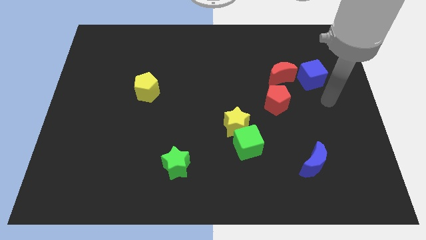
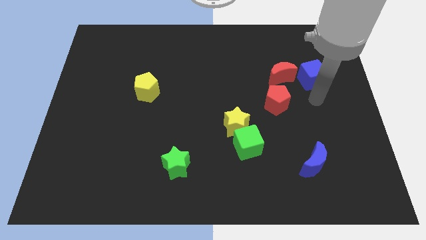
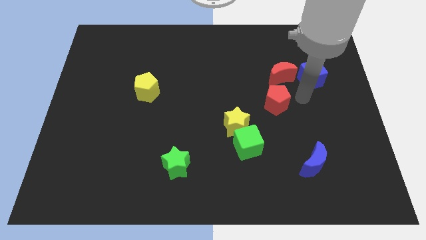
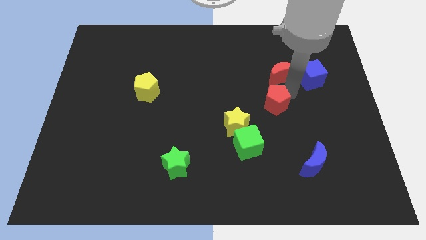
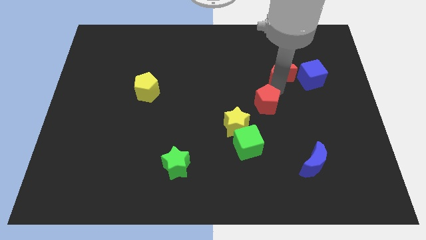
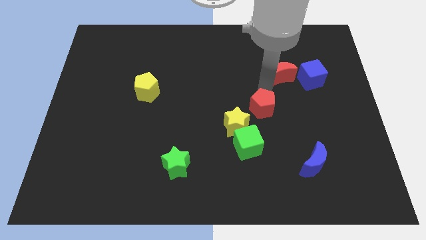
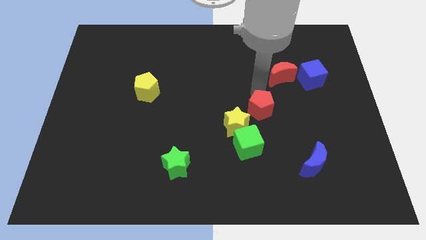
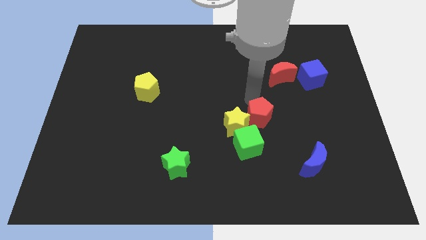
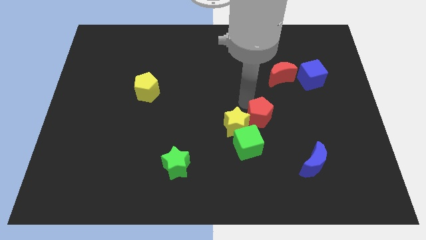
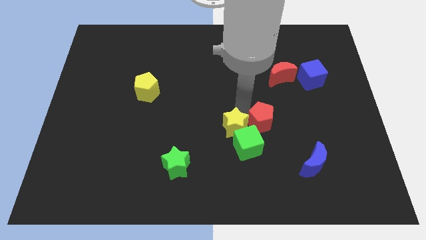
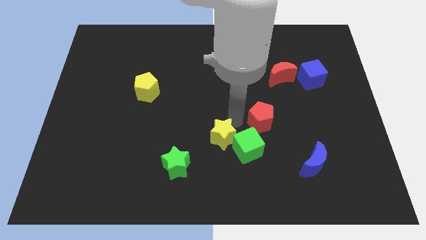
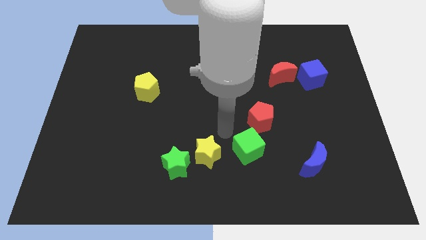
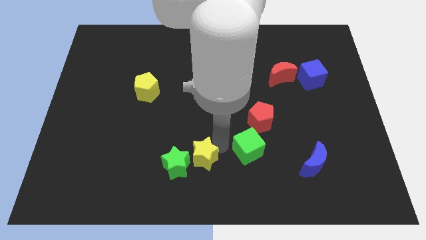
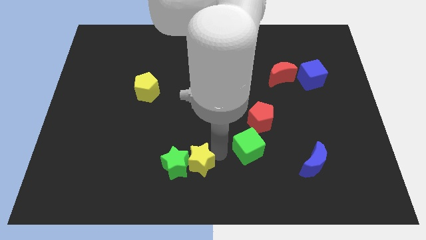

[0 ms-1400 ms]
separate the green cube from the yellow star

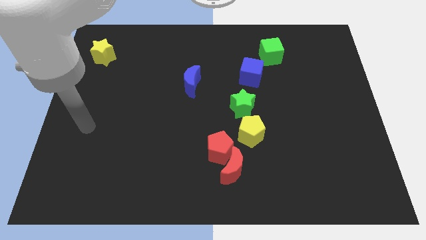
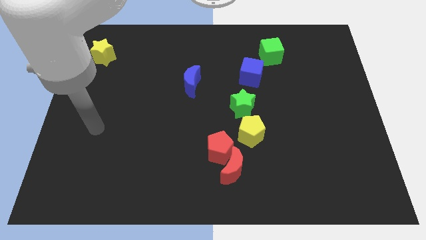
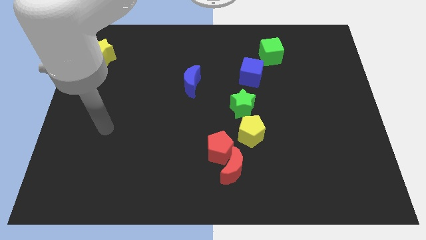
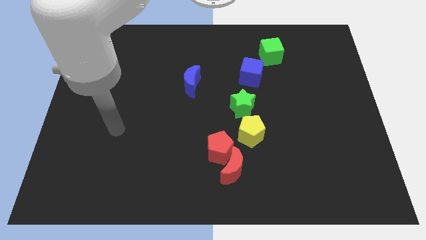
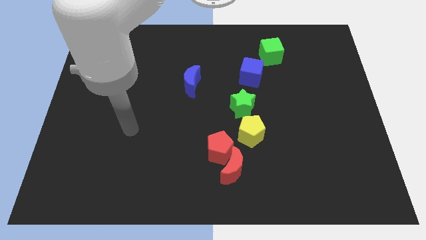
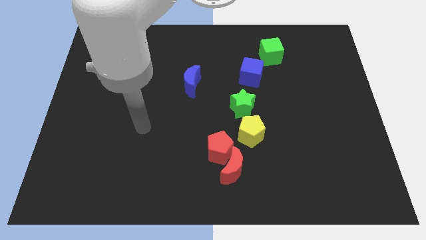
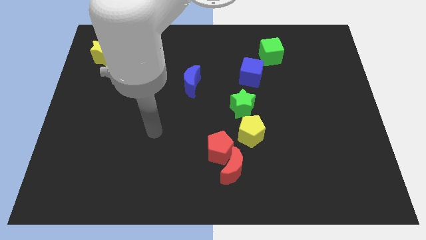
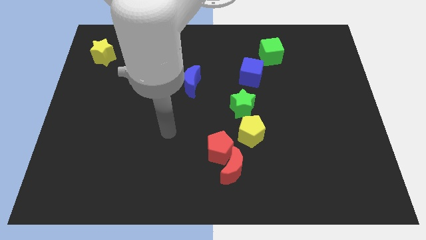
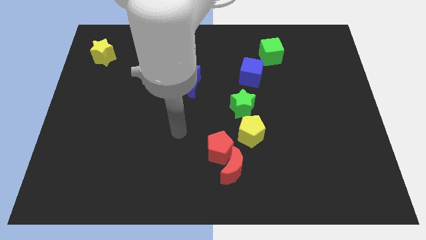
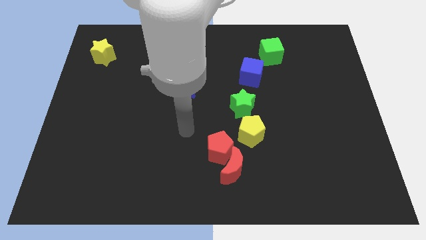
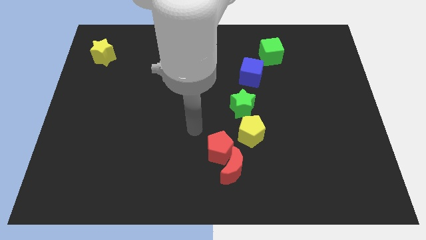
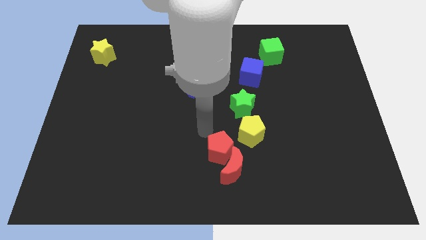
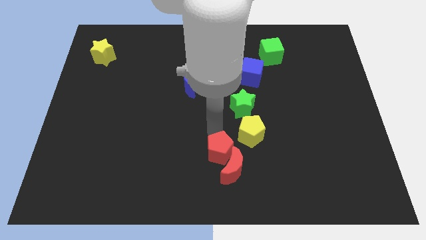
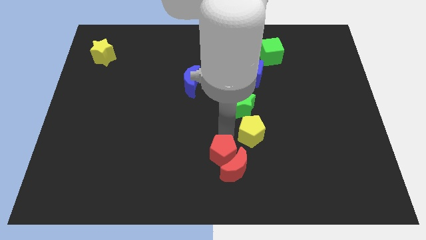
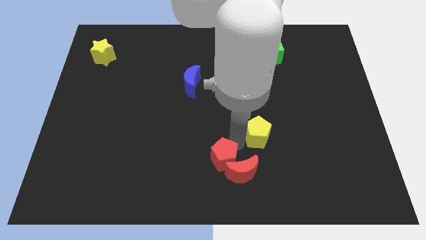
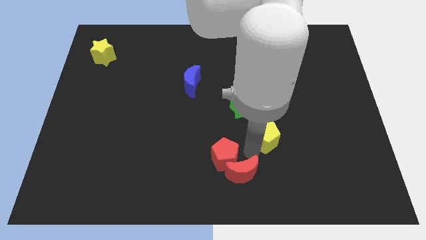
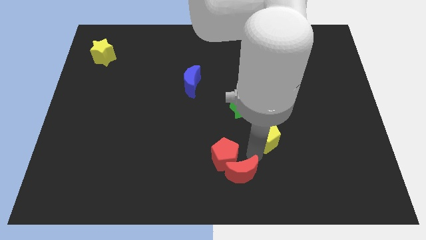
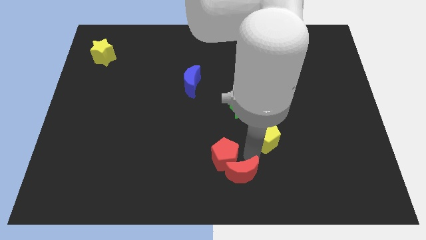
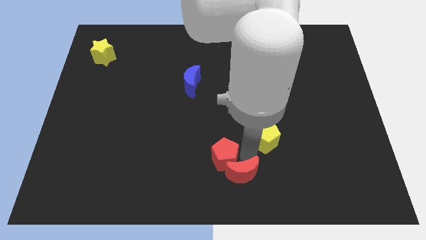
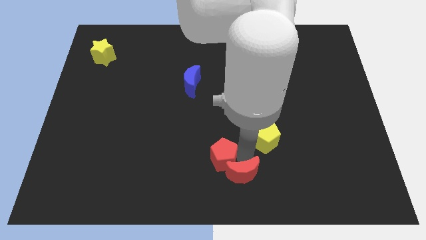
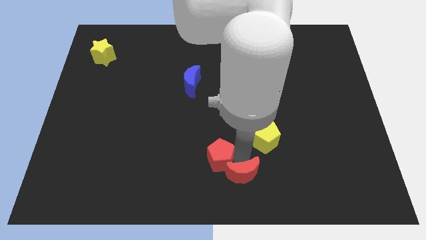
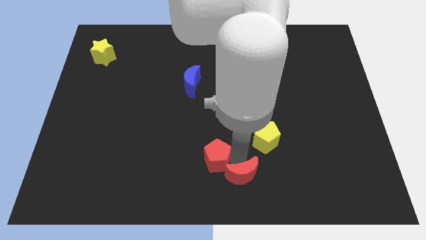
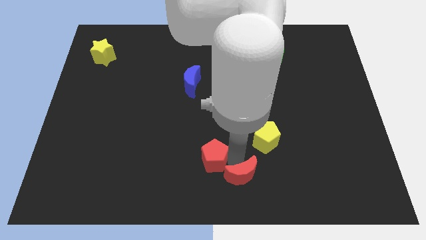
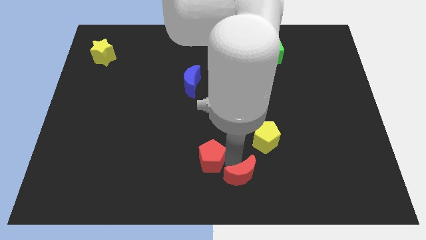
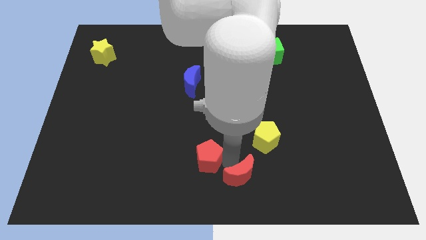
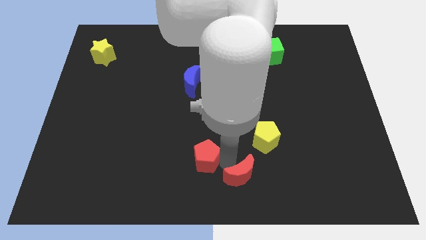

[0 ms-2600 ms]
separate the red pentagon from the red moon and yellow pentagon

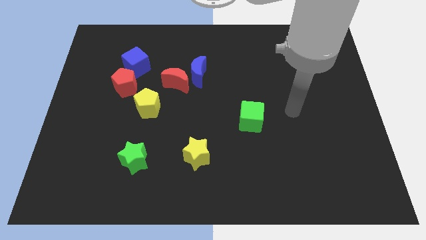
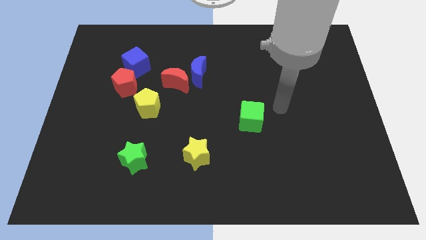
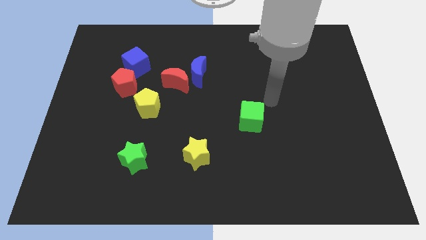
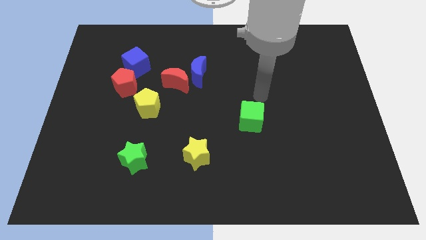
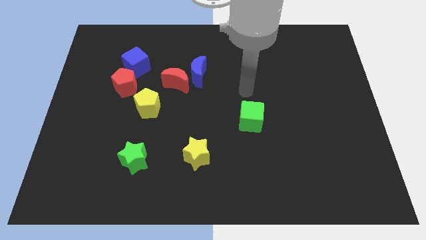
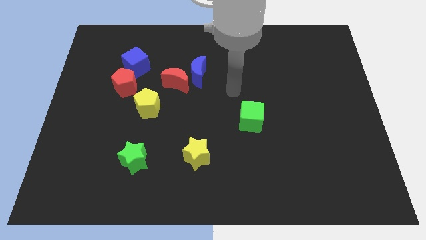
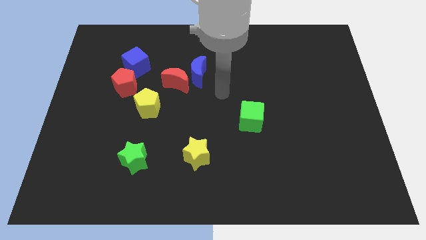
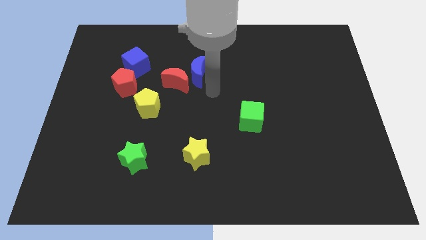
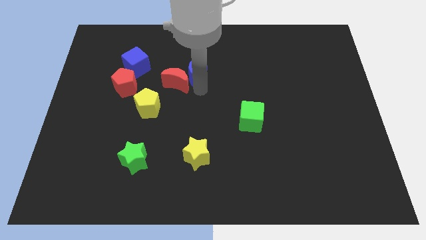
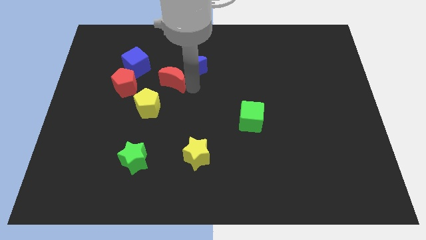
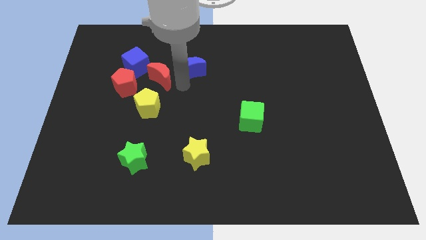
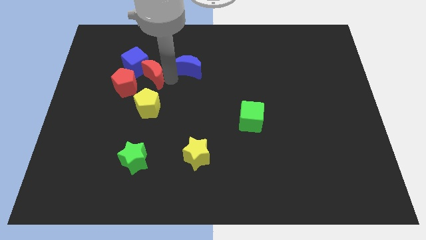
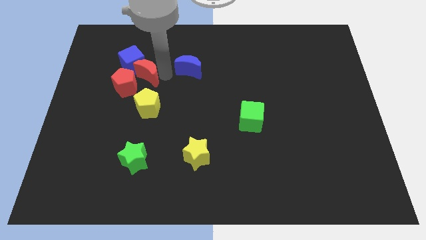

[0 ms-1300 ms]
pull the blue moon apart from the red moon

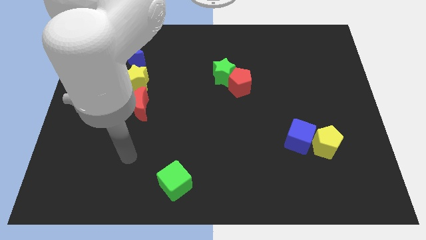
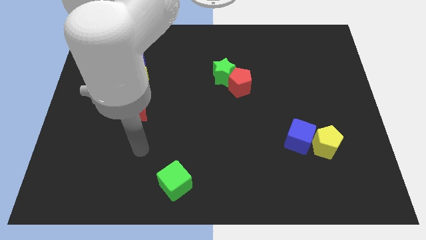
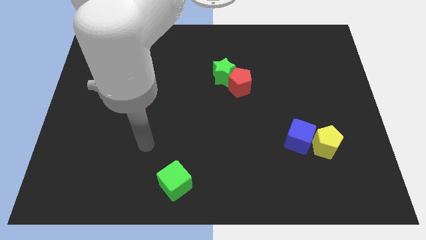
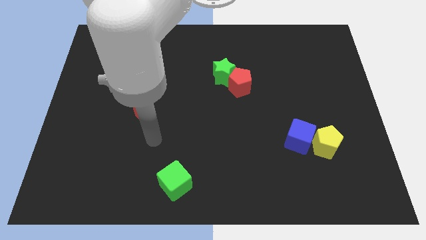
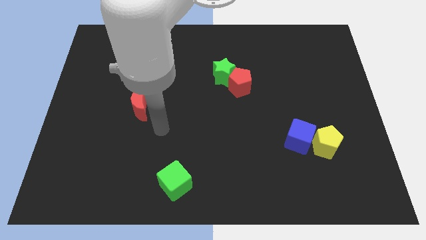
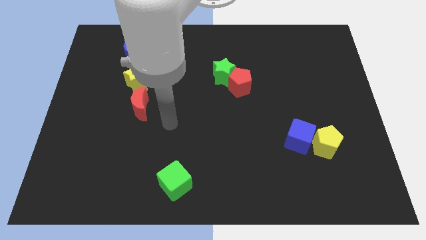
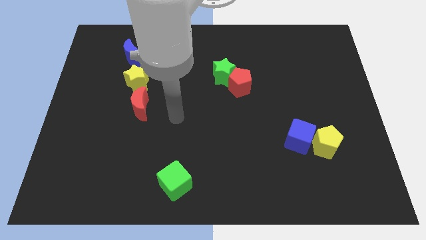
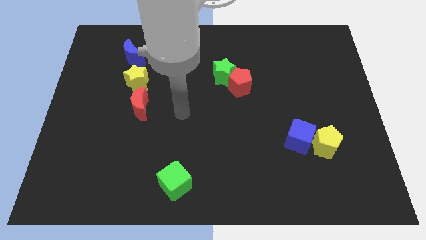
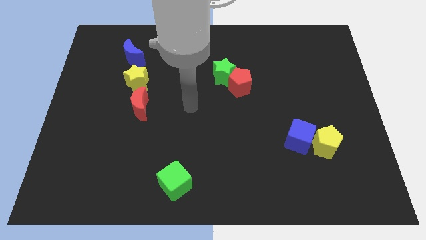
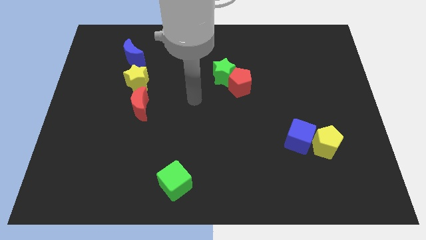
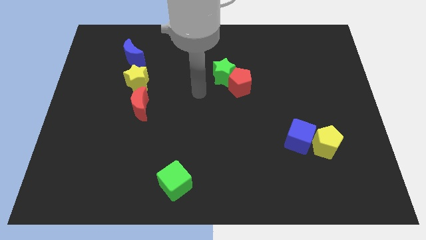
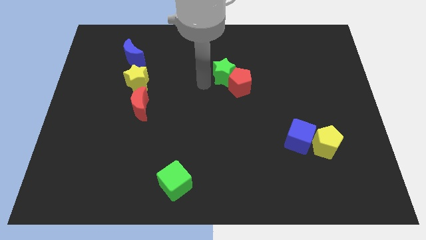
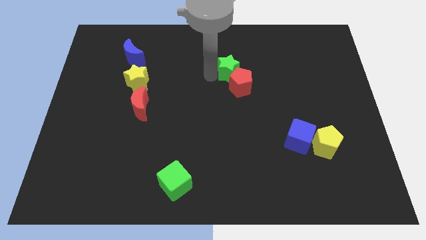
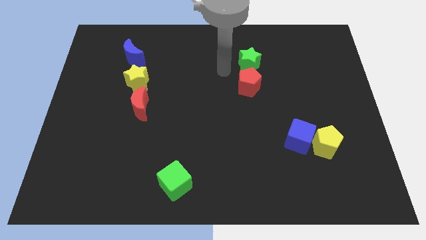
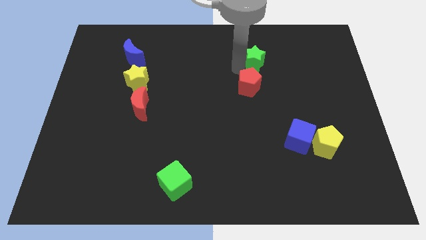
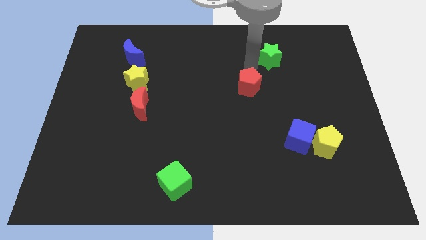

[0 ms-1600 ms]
pull the red pentagon apart from the green star

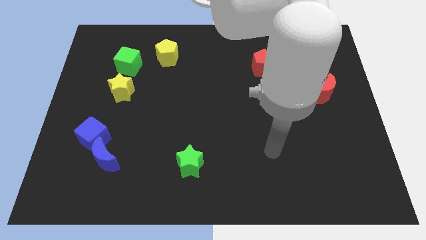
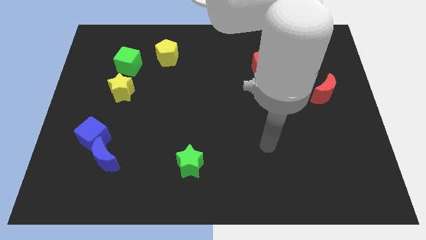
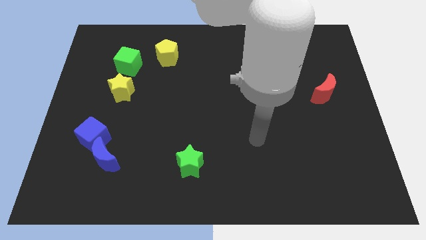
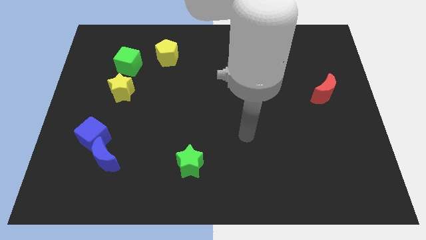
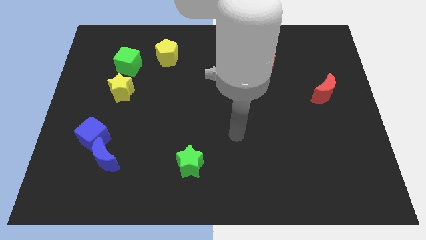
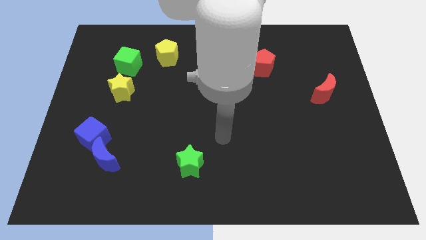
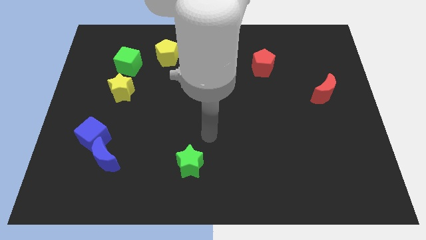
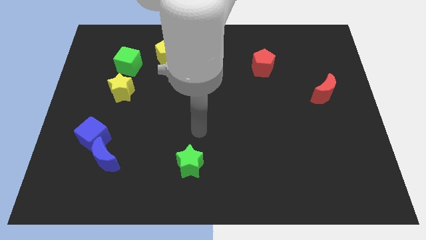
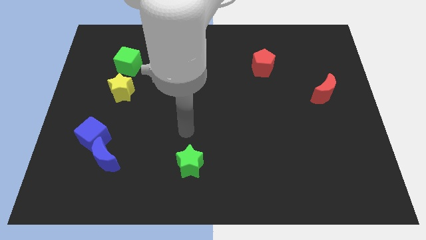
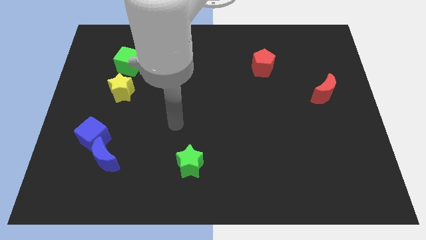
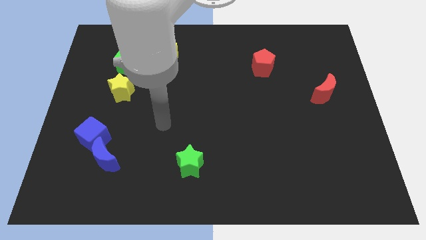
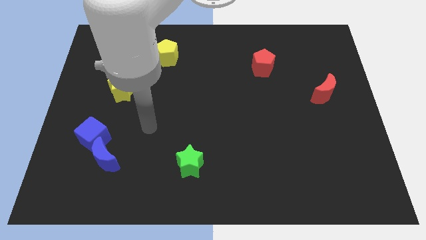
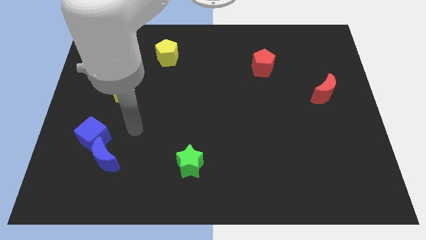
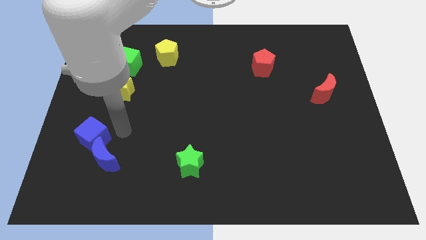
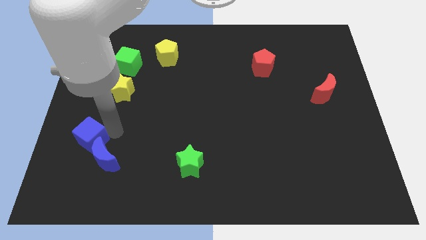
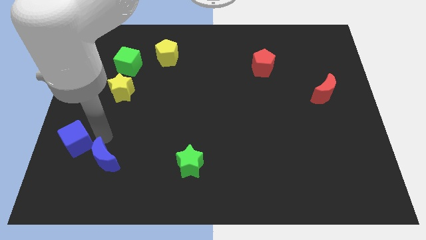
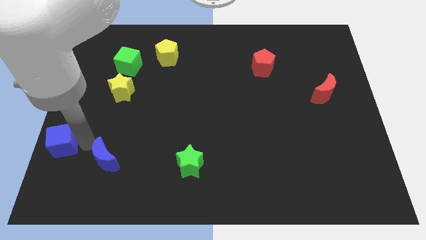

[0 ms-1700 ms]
separate the blue moon from the blue cube

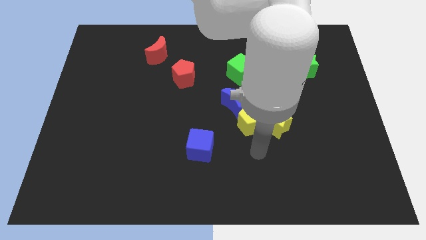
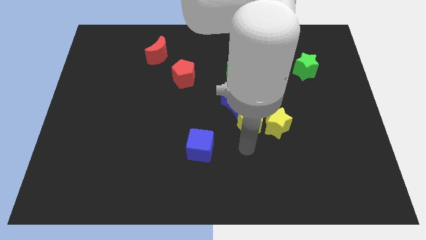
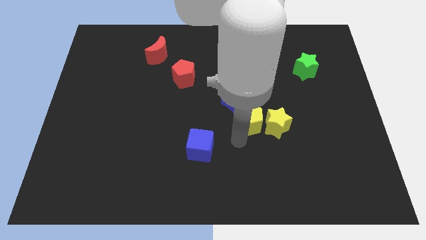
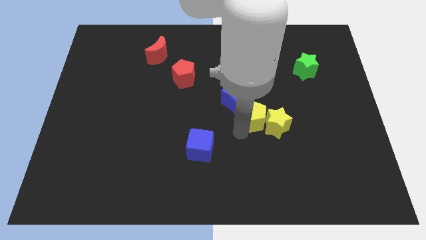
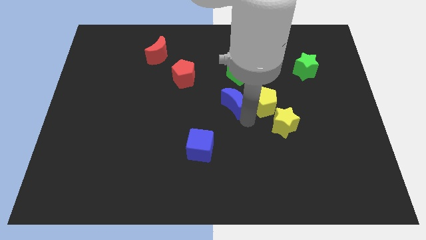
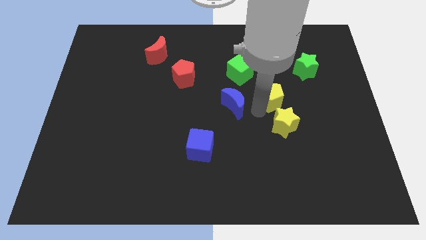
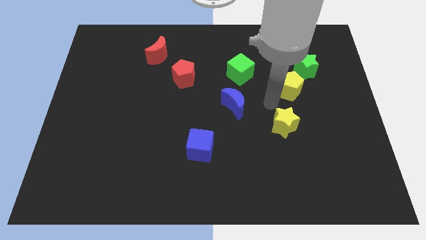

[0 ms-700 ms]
pull the yellow star apart from the yellow pentagon
